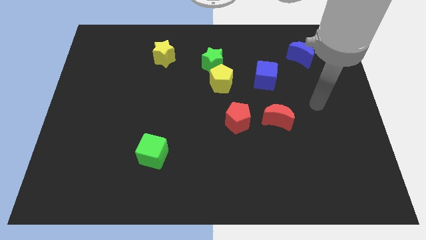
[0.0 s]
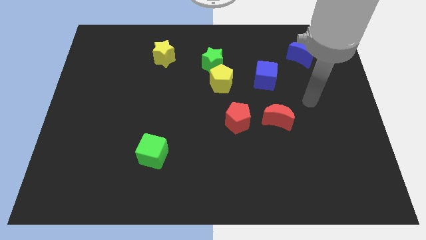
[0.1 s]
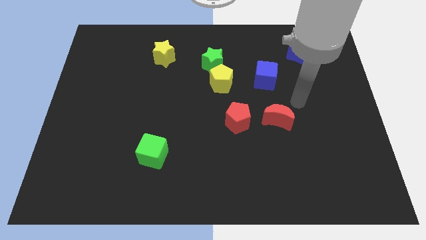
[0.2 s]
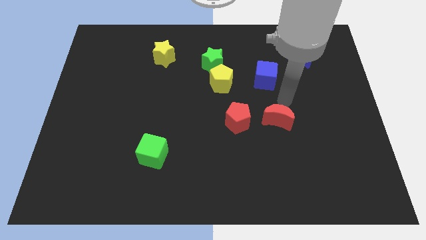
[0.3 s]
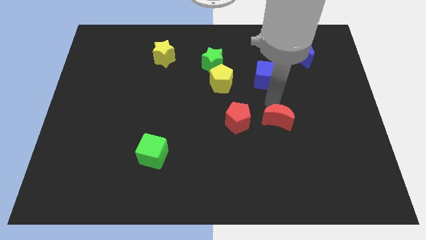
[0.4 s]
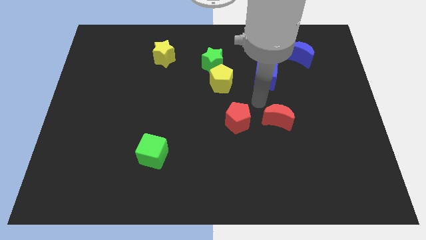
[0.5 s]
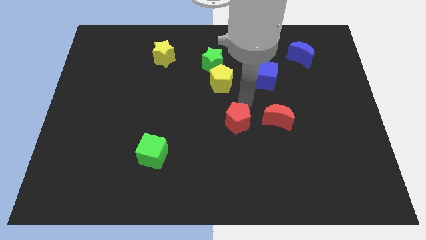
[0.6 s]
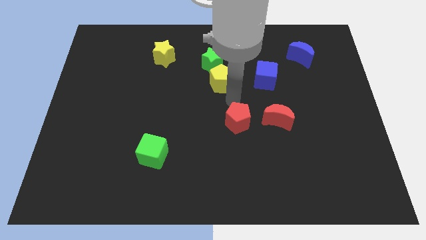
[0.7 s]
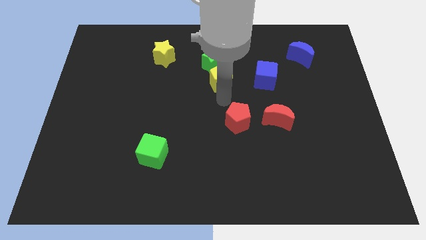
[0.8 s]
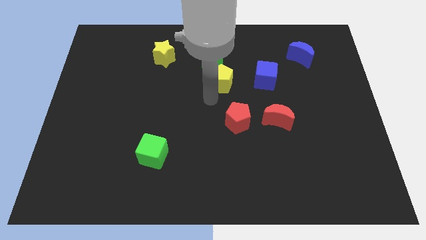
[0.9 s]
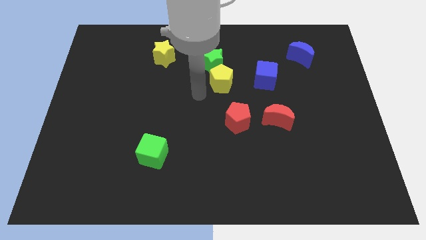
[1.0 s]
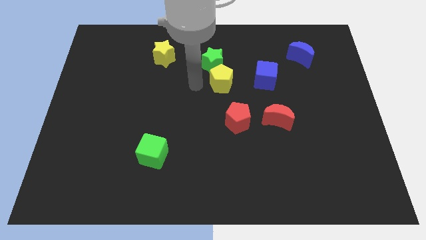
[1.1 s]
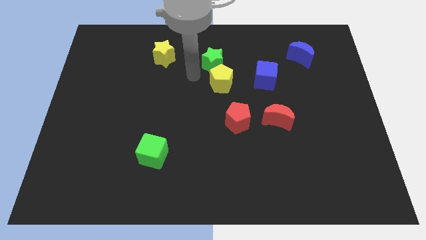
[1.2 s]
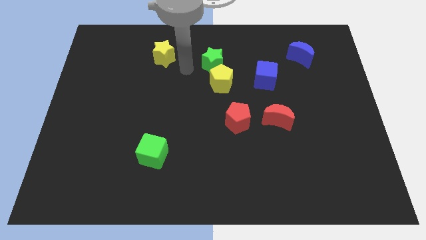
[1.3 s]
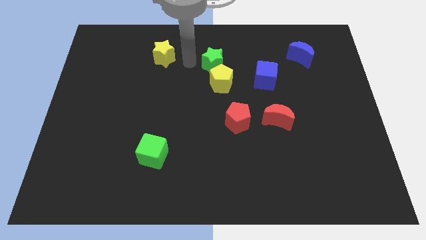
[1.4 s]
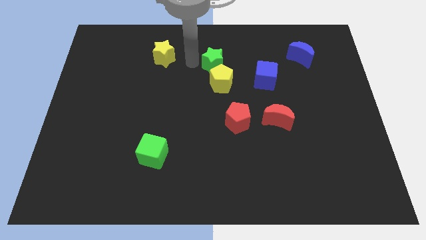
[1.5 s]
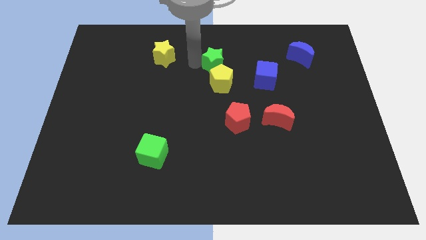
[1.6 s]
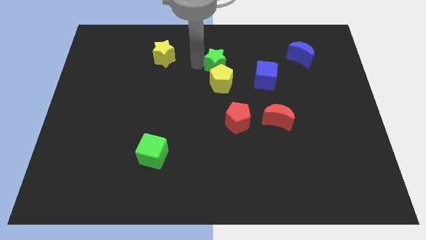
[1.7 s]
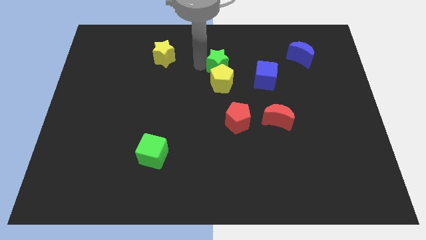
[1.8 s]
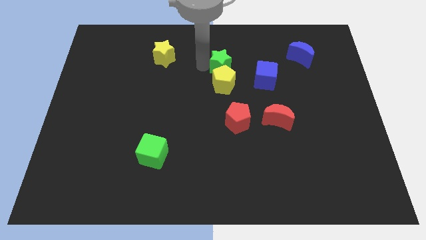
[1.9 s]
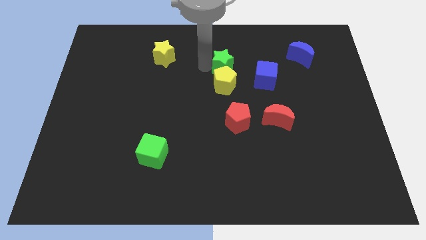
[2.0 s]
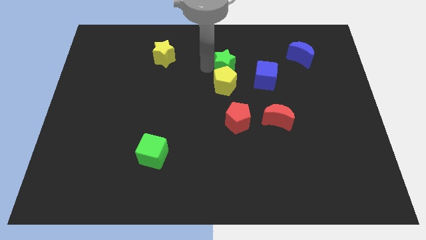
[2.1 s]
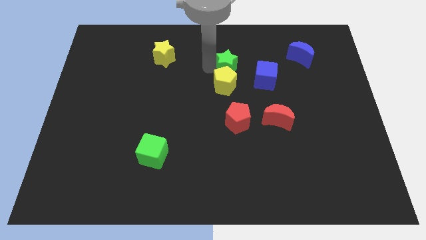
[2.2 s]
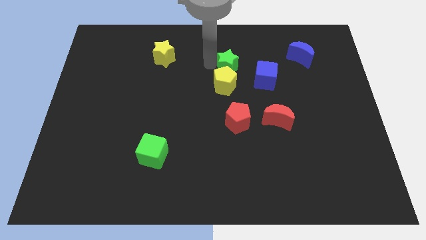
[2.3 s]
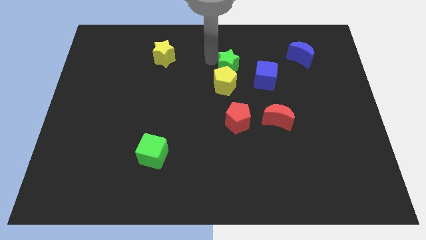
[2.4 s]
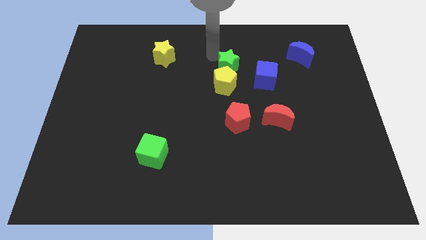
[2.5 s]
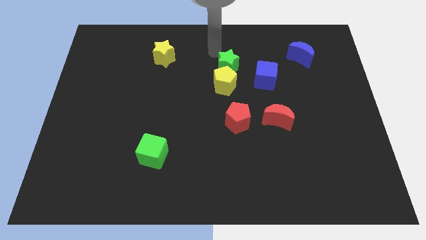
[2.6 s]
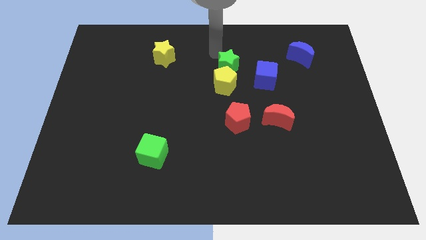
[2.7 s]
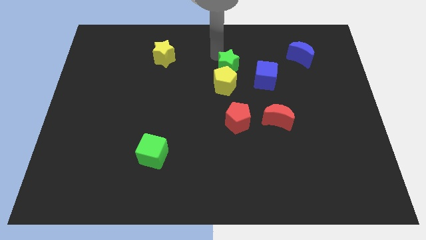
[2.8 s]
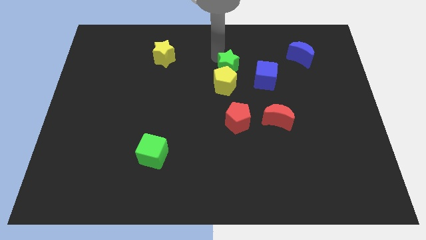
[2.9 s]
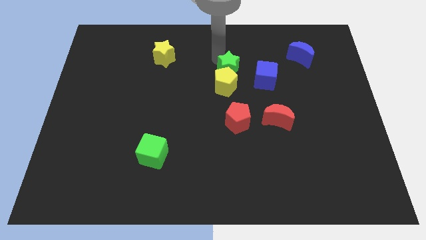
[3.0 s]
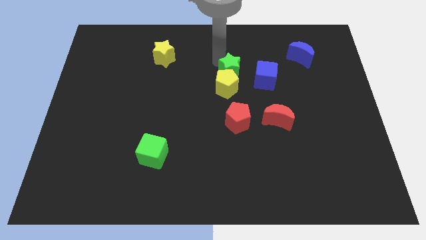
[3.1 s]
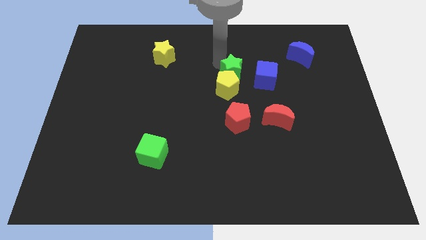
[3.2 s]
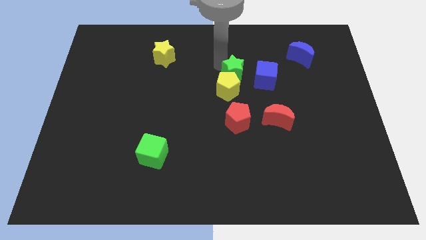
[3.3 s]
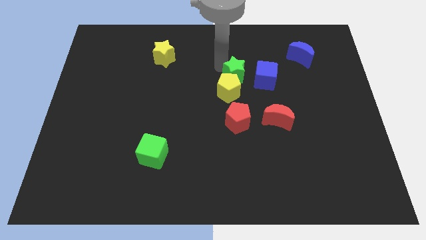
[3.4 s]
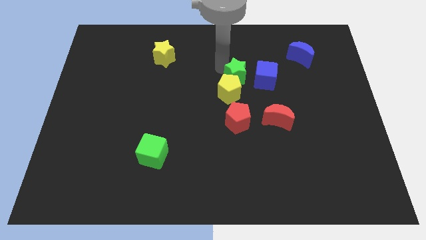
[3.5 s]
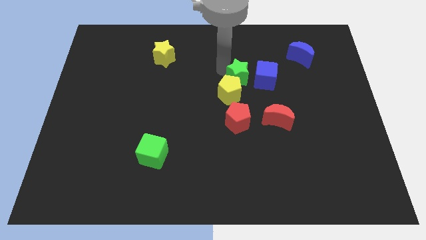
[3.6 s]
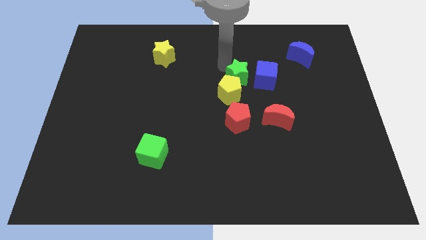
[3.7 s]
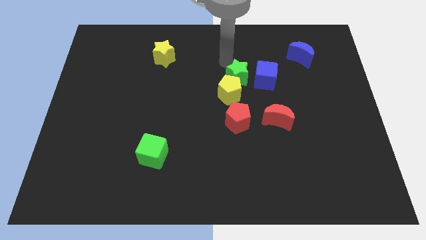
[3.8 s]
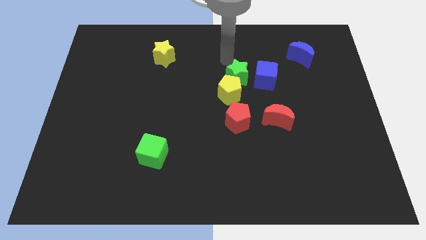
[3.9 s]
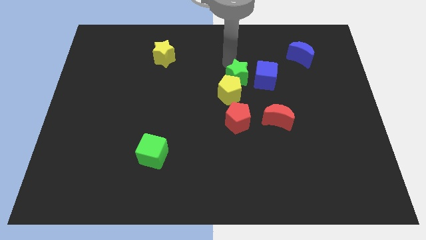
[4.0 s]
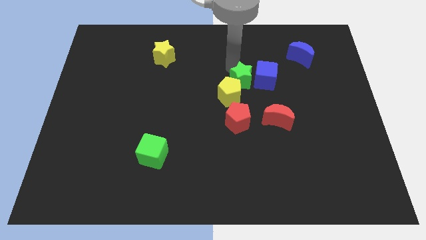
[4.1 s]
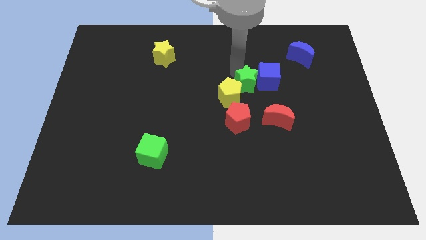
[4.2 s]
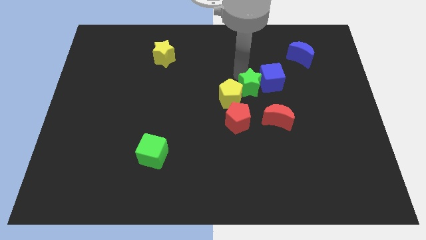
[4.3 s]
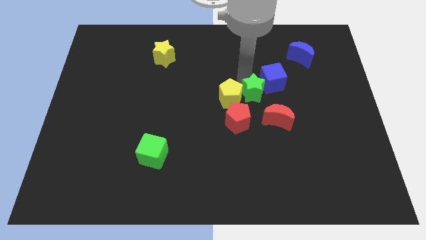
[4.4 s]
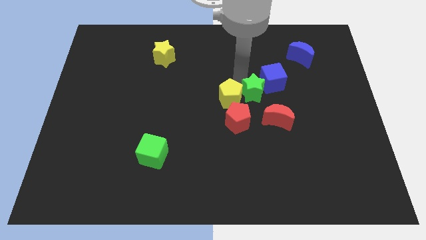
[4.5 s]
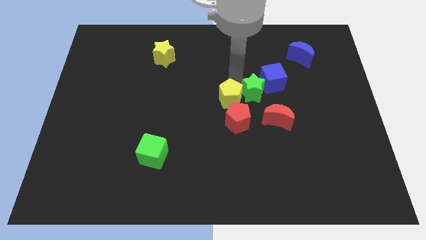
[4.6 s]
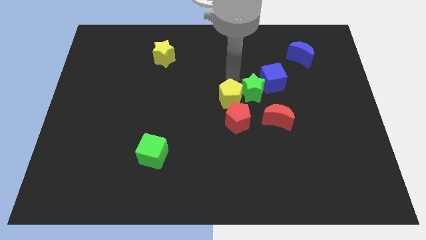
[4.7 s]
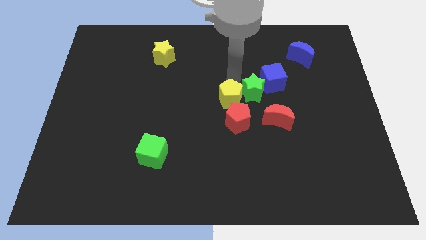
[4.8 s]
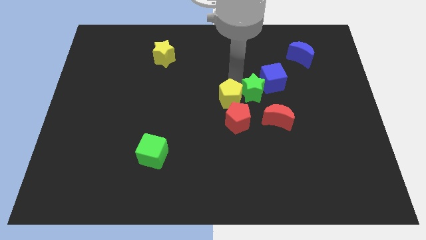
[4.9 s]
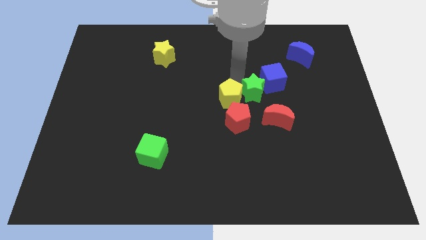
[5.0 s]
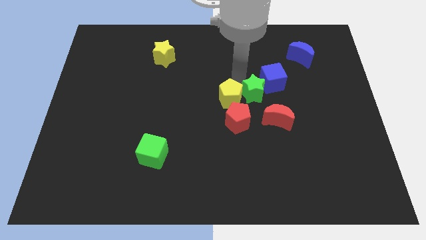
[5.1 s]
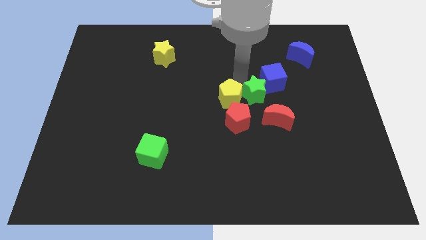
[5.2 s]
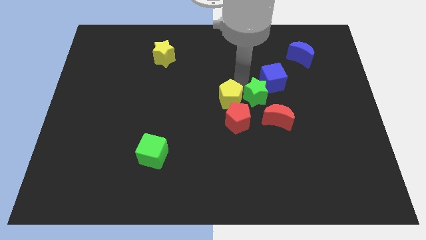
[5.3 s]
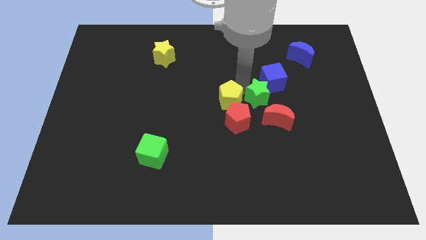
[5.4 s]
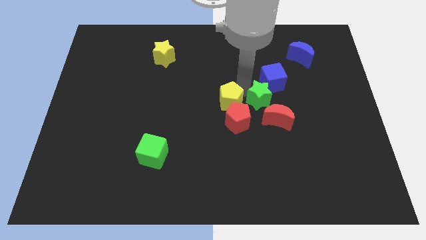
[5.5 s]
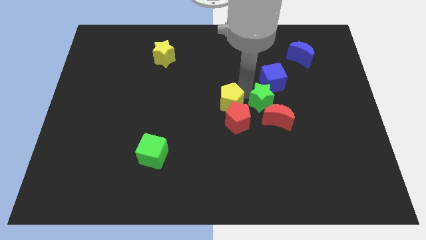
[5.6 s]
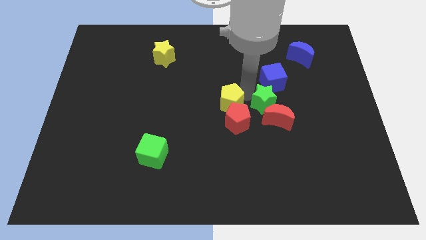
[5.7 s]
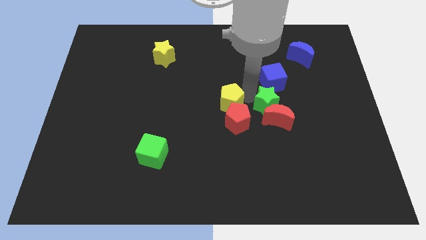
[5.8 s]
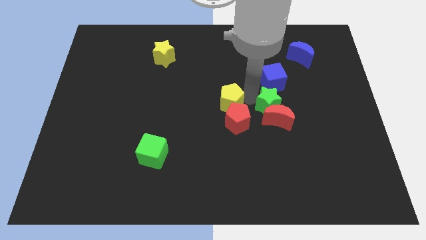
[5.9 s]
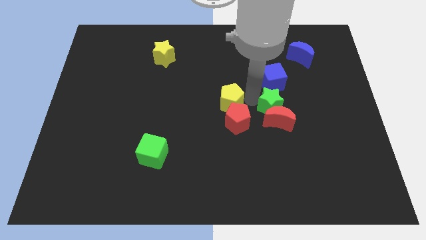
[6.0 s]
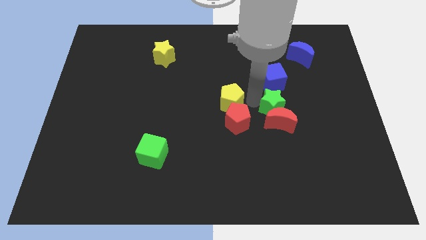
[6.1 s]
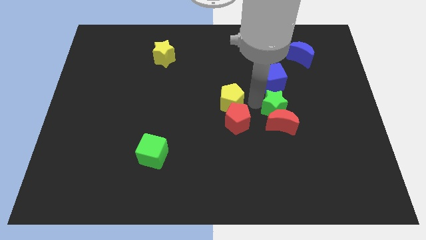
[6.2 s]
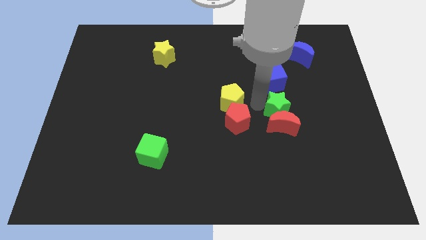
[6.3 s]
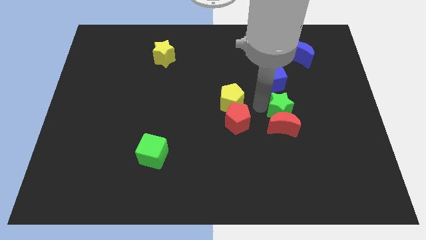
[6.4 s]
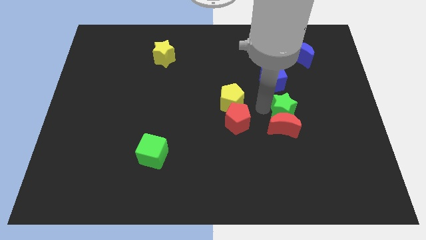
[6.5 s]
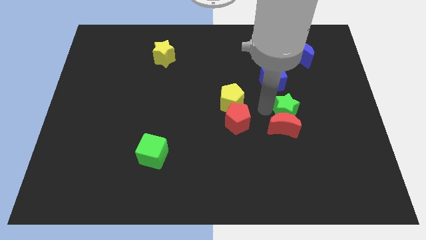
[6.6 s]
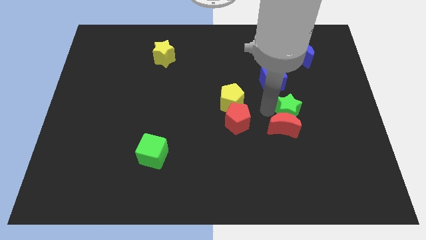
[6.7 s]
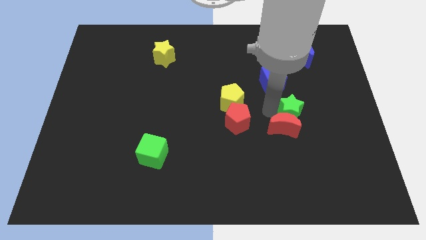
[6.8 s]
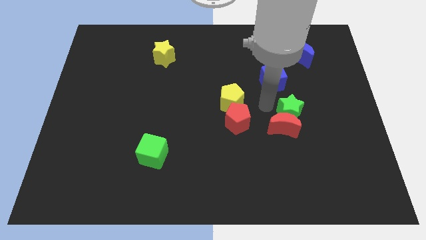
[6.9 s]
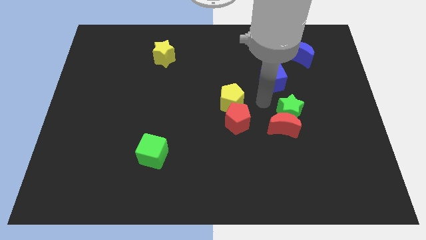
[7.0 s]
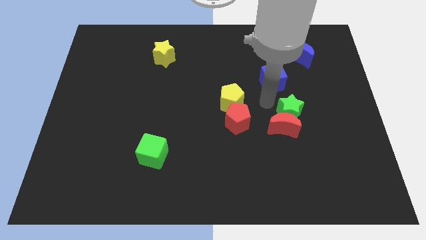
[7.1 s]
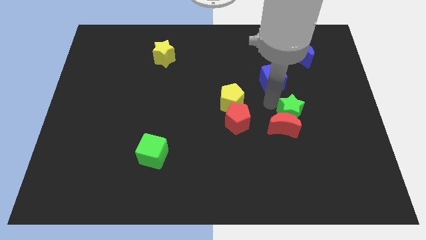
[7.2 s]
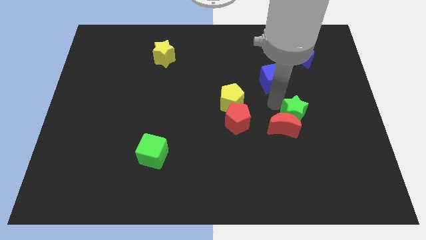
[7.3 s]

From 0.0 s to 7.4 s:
put the green star to the right of the red moon
